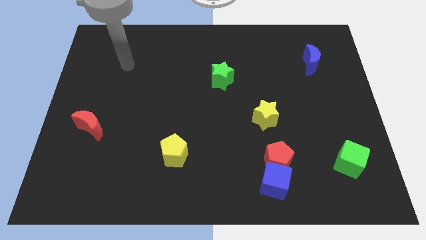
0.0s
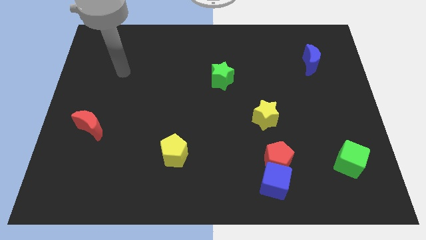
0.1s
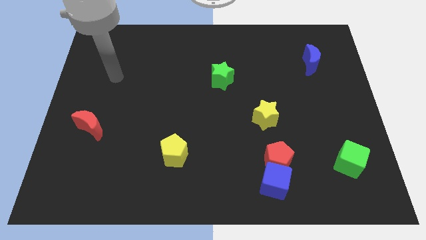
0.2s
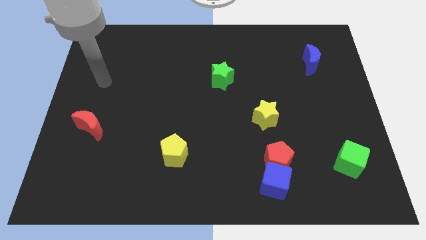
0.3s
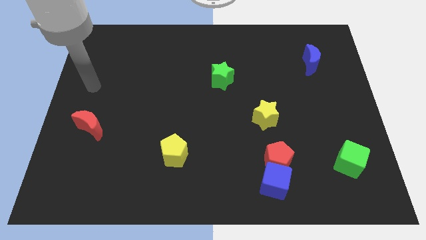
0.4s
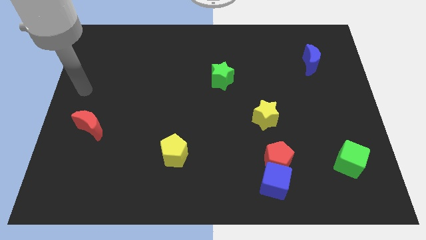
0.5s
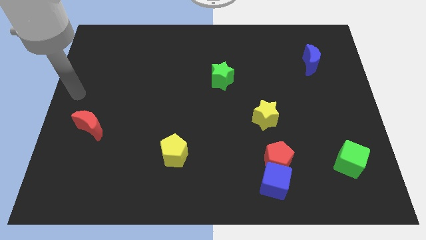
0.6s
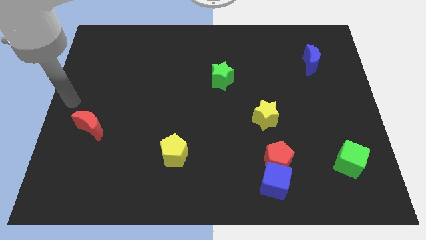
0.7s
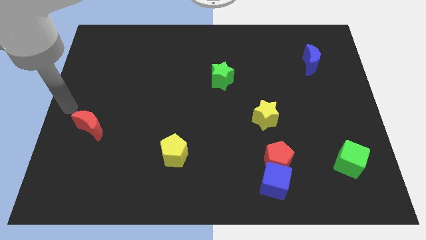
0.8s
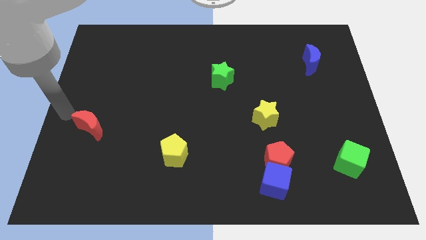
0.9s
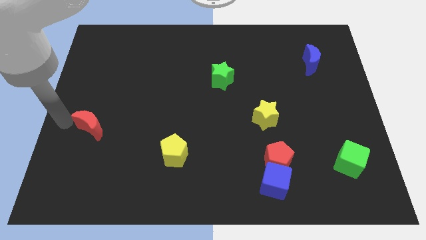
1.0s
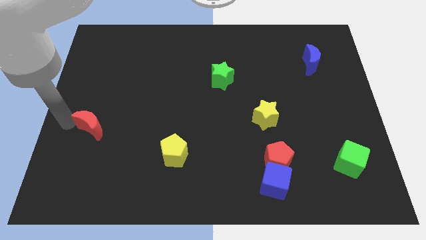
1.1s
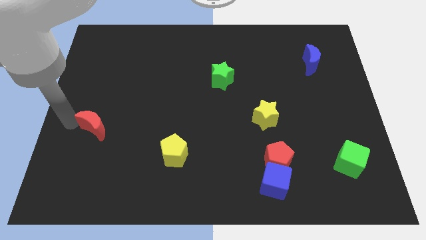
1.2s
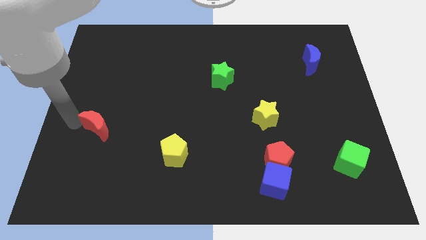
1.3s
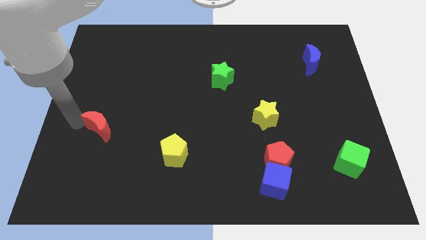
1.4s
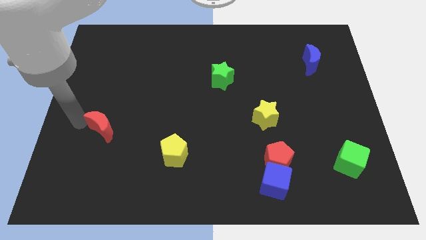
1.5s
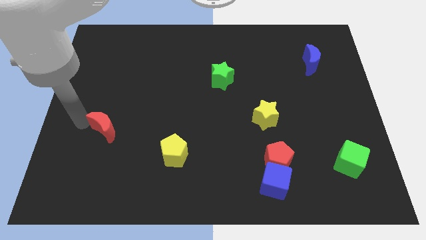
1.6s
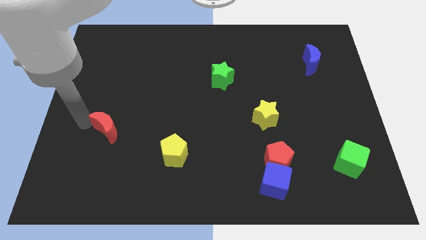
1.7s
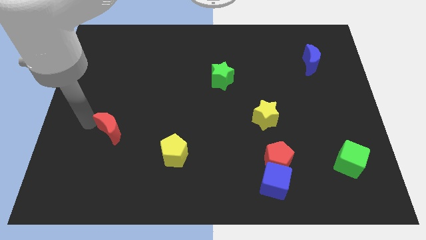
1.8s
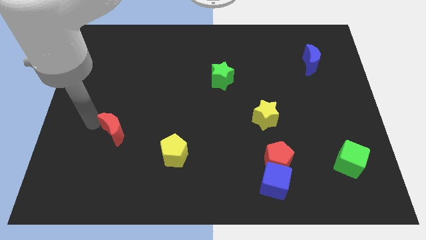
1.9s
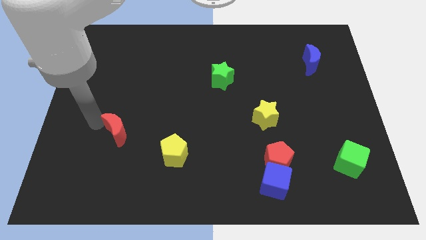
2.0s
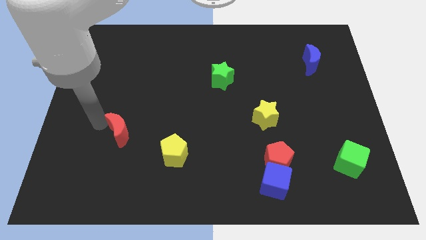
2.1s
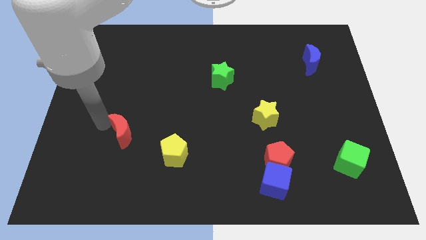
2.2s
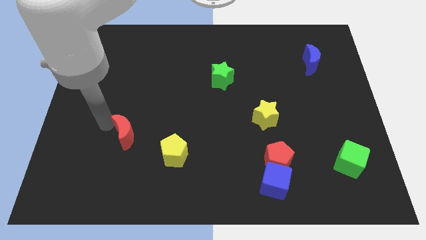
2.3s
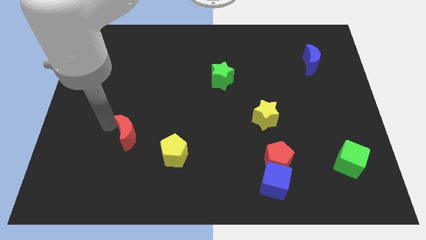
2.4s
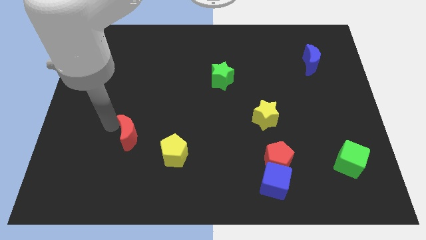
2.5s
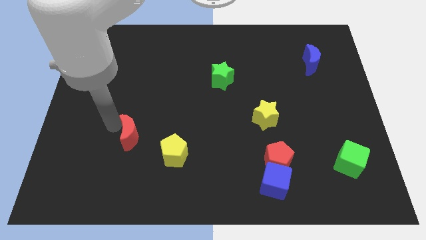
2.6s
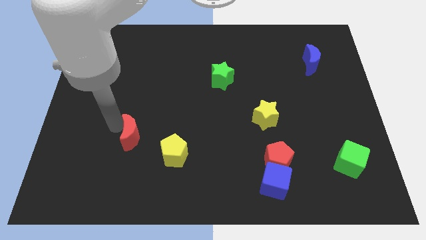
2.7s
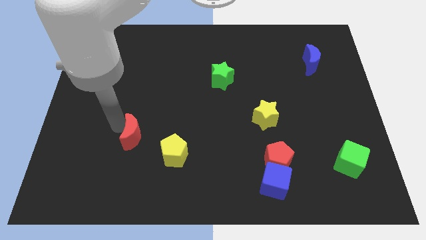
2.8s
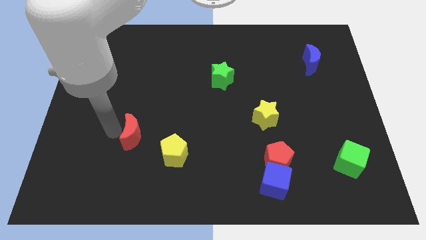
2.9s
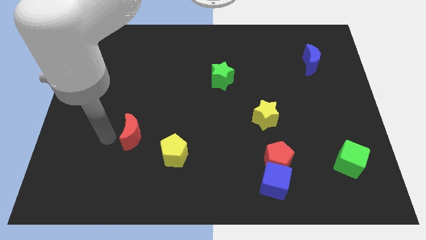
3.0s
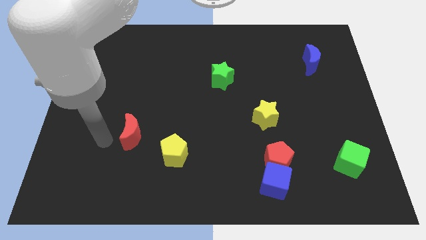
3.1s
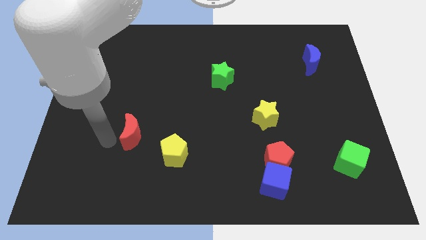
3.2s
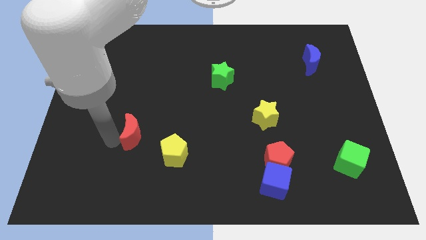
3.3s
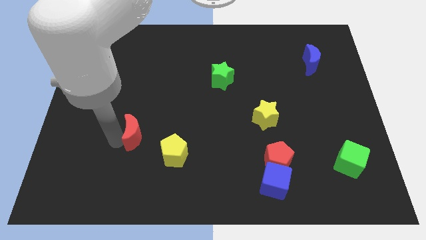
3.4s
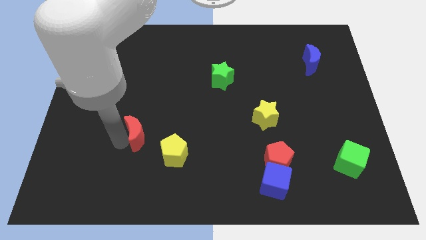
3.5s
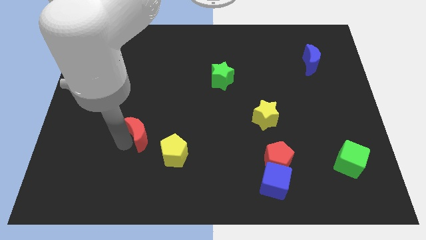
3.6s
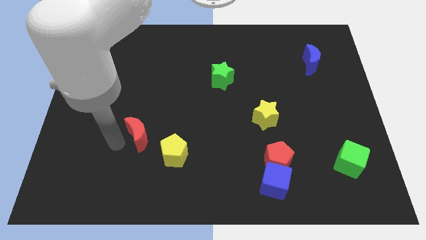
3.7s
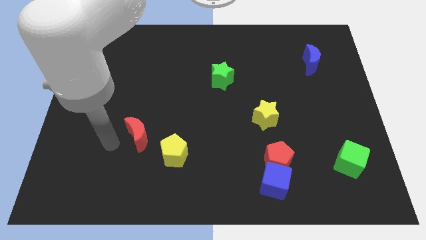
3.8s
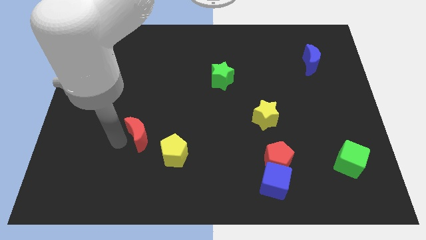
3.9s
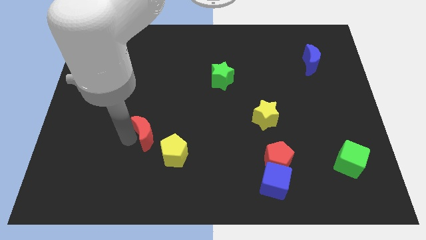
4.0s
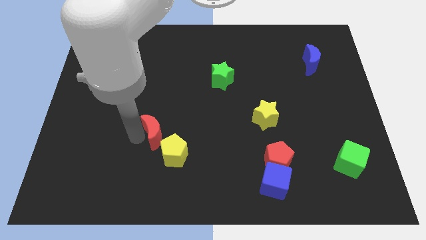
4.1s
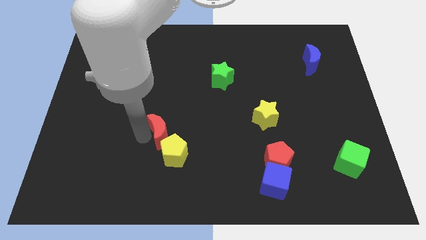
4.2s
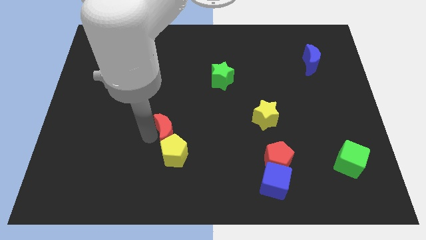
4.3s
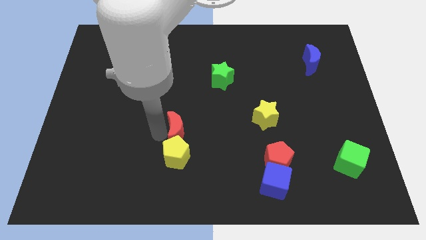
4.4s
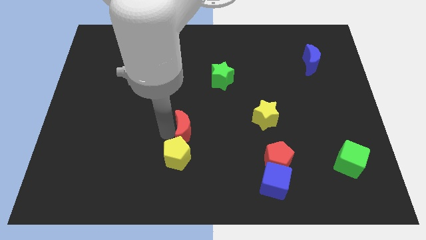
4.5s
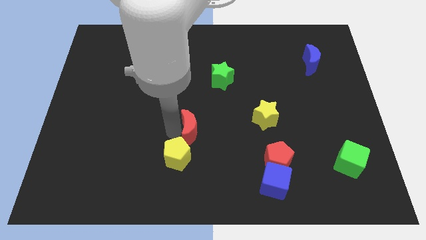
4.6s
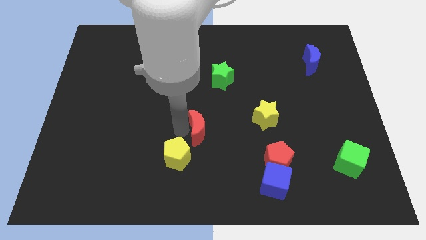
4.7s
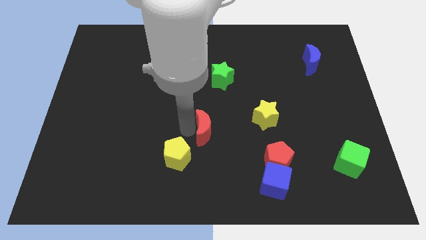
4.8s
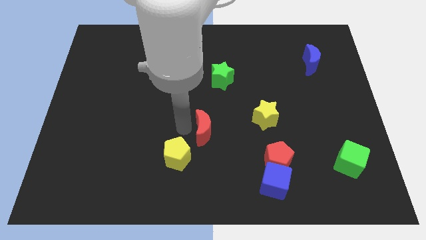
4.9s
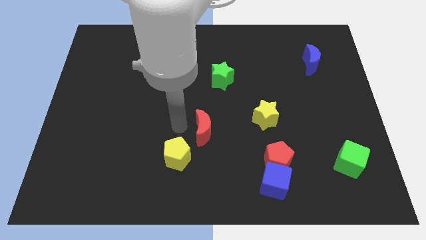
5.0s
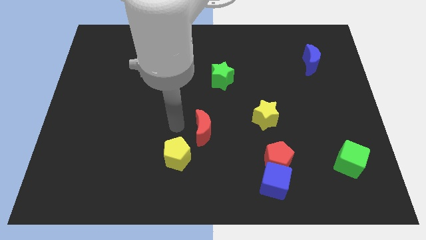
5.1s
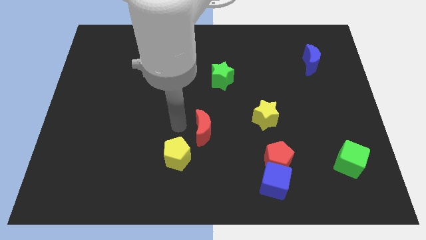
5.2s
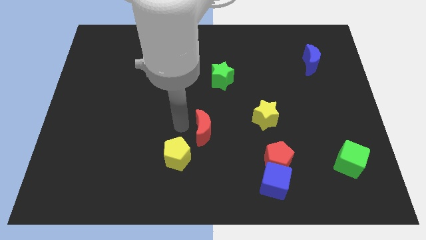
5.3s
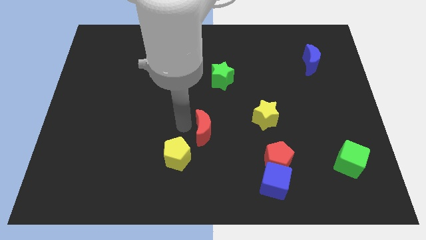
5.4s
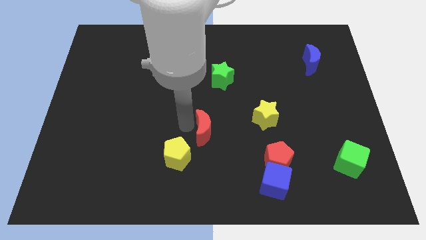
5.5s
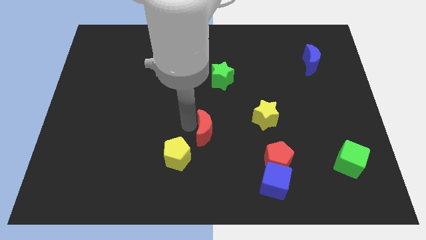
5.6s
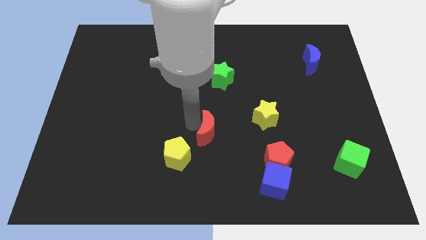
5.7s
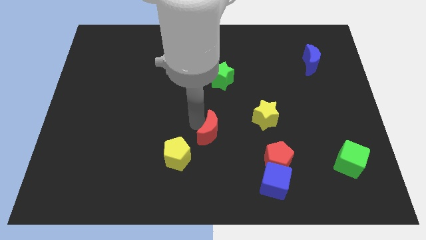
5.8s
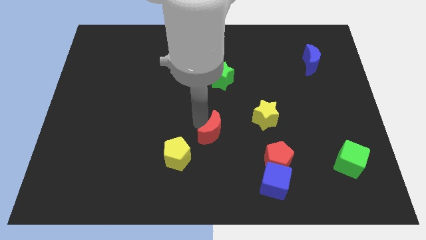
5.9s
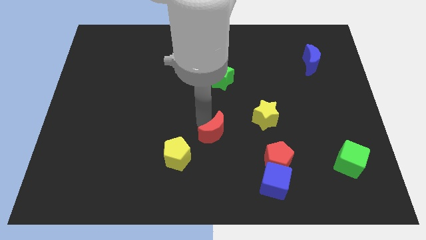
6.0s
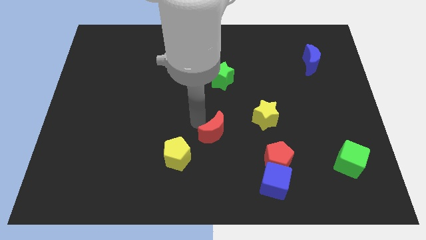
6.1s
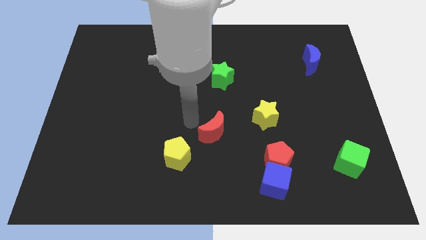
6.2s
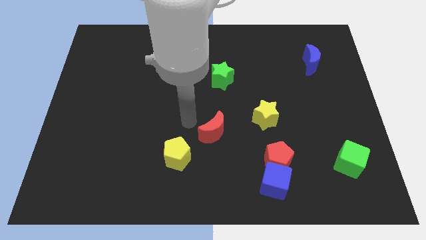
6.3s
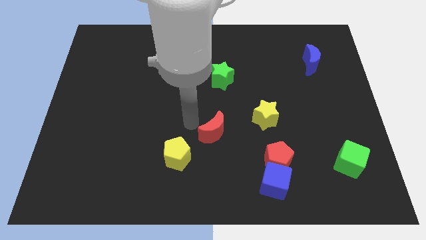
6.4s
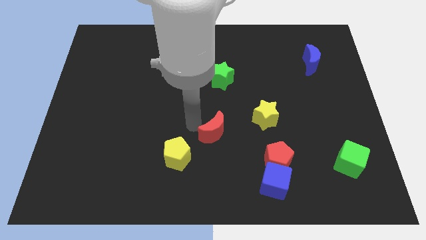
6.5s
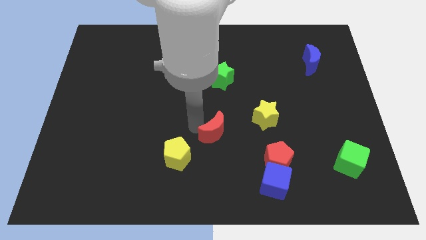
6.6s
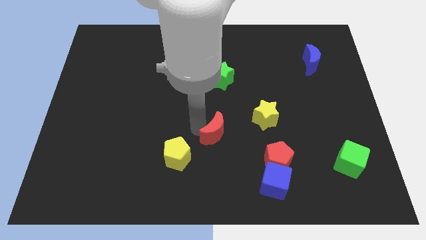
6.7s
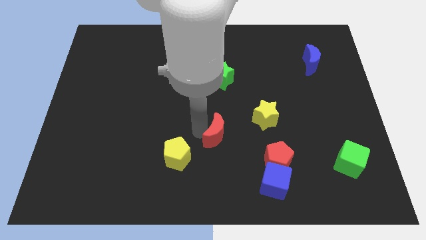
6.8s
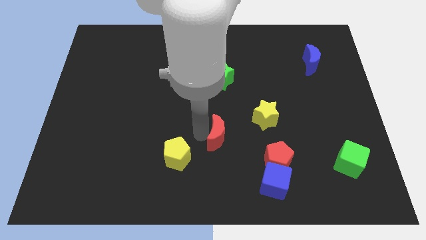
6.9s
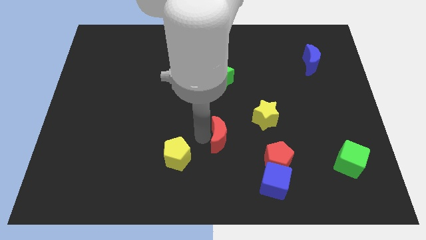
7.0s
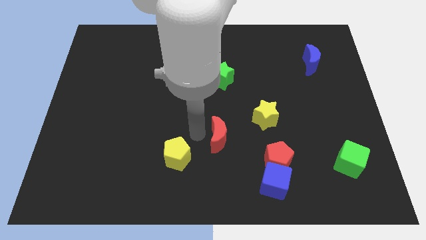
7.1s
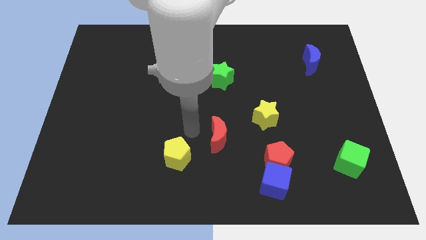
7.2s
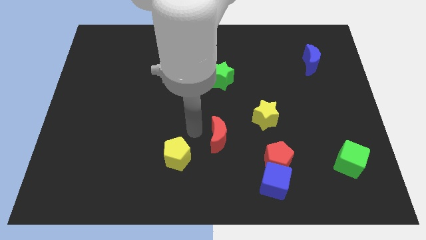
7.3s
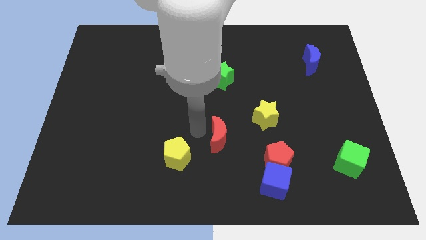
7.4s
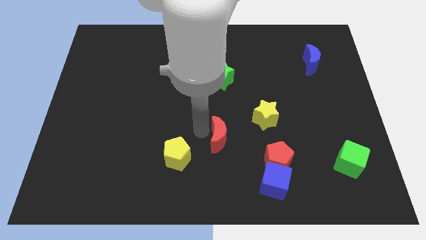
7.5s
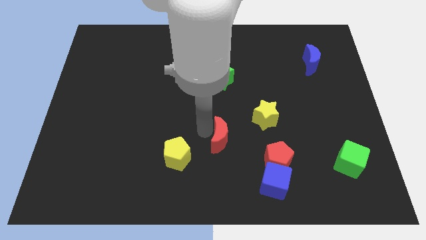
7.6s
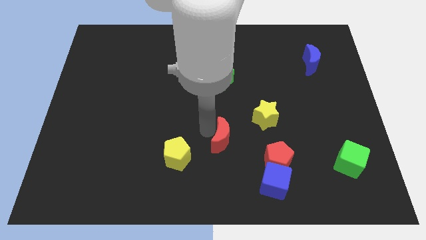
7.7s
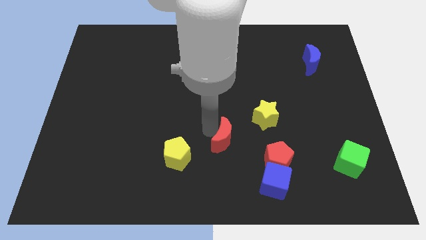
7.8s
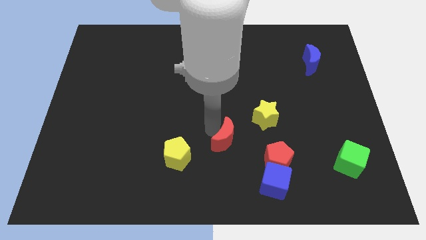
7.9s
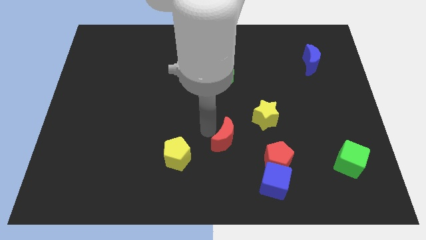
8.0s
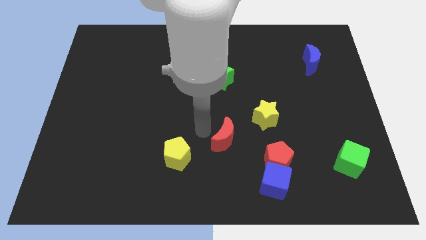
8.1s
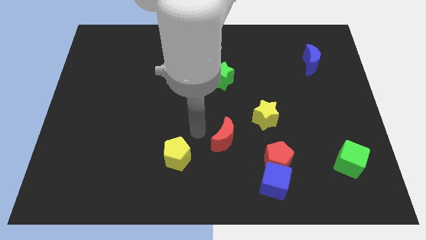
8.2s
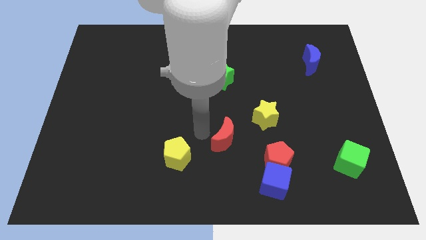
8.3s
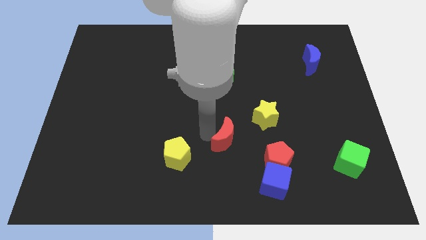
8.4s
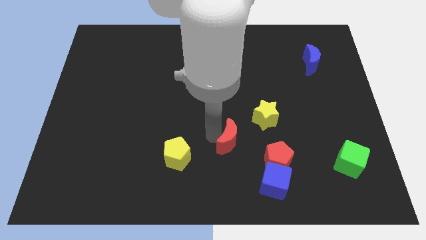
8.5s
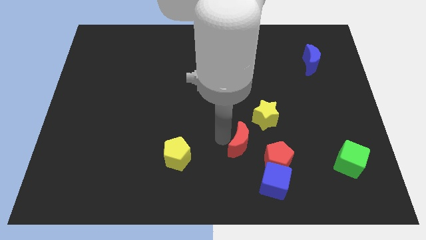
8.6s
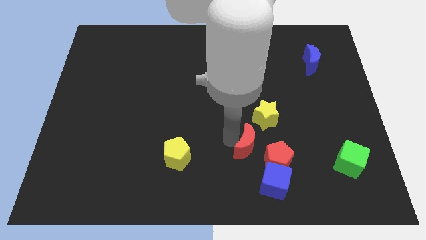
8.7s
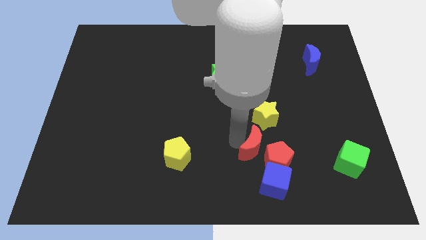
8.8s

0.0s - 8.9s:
put the red moon to the red pentagon
